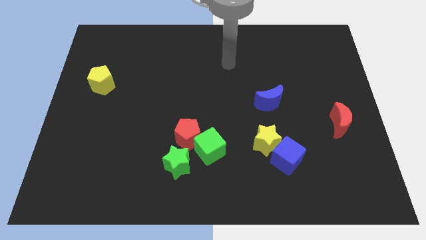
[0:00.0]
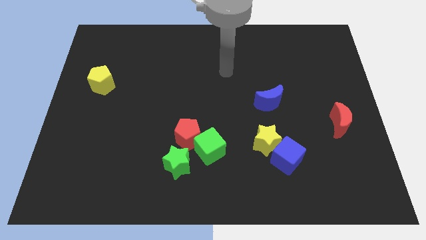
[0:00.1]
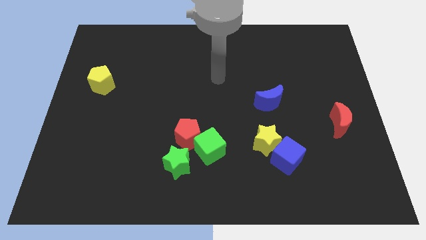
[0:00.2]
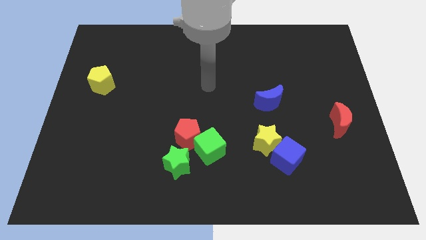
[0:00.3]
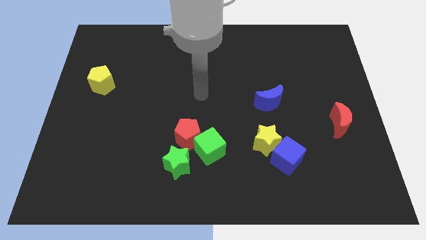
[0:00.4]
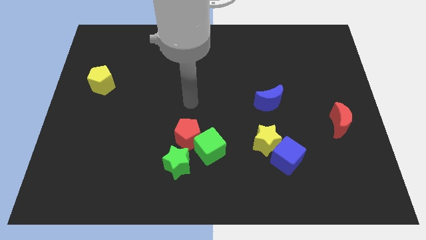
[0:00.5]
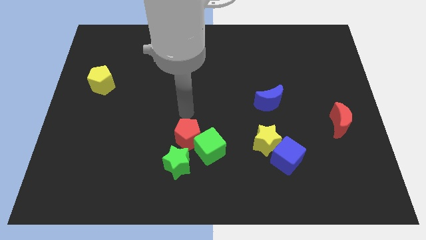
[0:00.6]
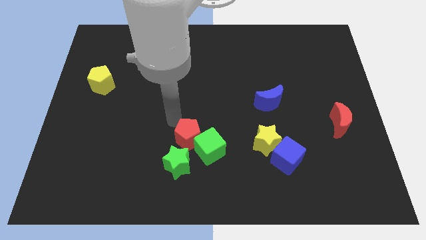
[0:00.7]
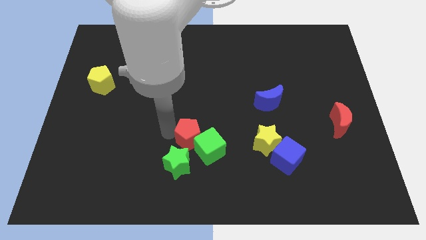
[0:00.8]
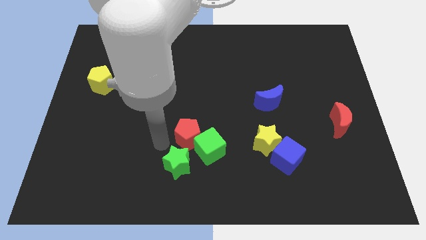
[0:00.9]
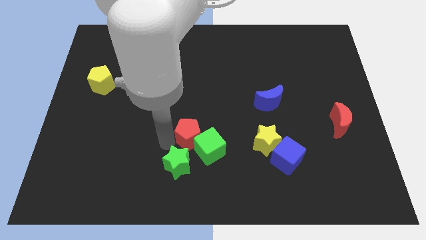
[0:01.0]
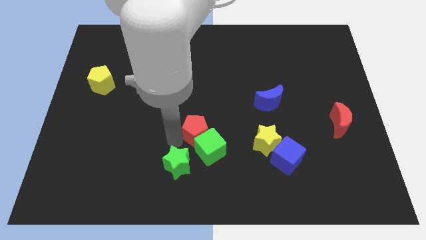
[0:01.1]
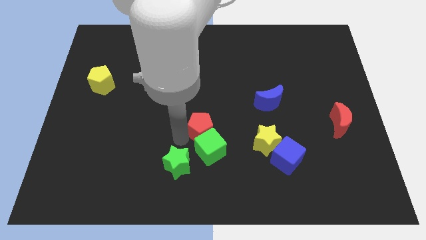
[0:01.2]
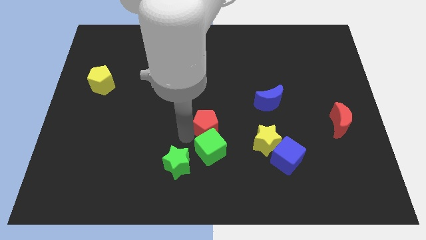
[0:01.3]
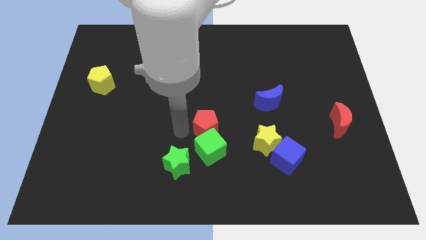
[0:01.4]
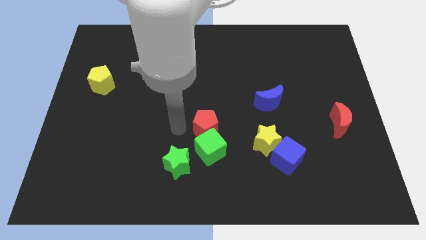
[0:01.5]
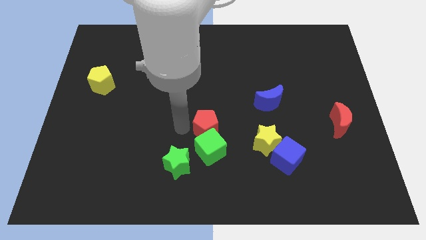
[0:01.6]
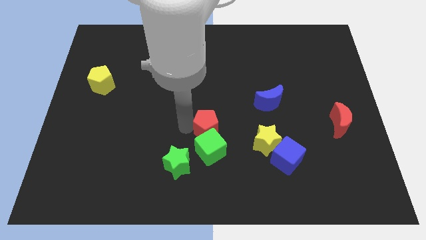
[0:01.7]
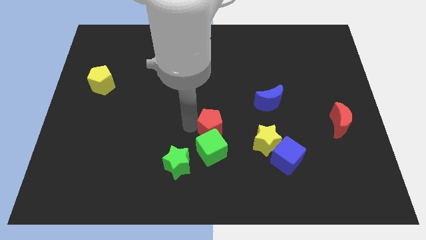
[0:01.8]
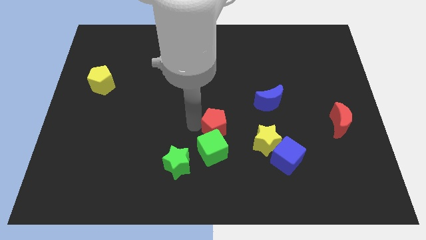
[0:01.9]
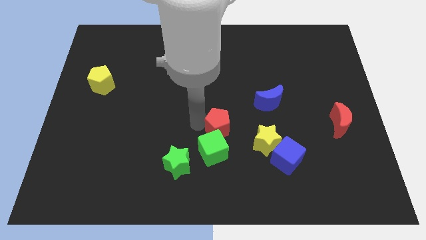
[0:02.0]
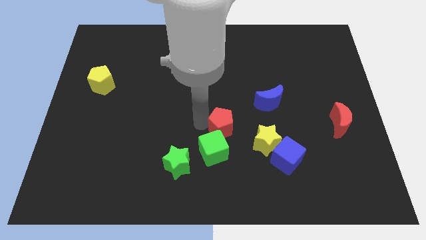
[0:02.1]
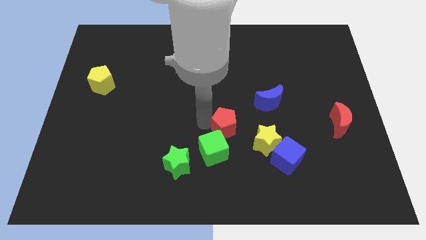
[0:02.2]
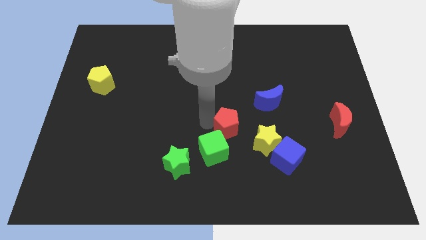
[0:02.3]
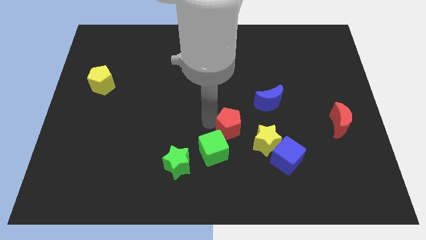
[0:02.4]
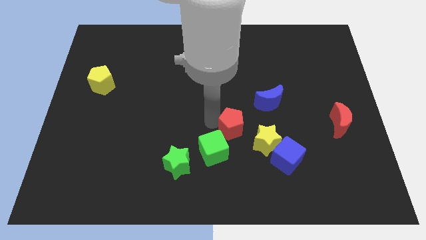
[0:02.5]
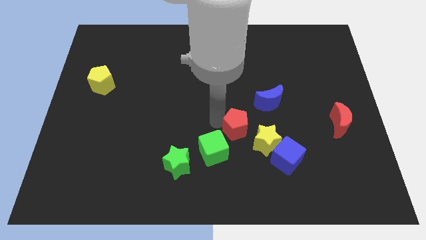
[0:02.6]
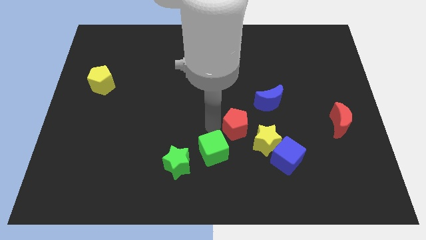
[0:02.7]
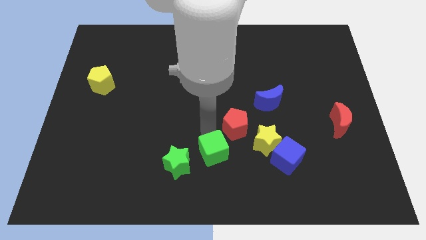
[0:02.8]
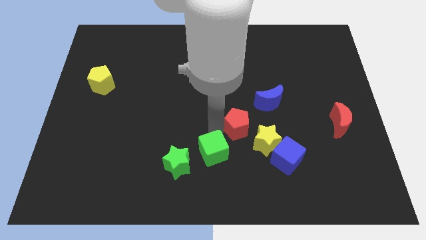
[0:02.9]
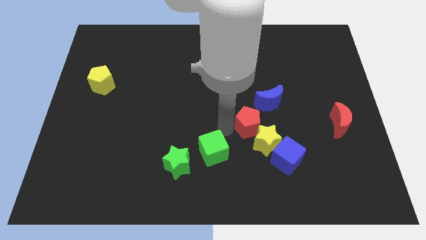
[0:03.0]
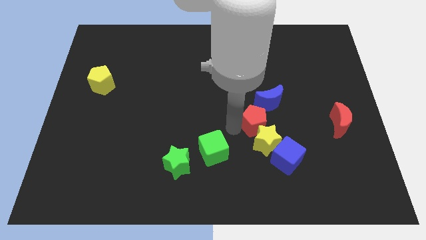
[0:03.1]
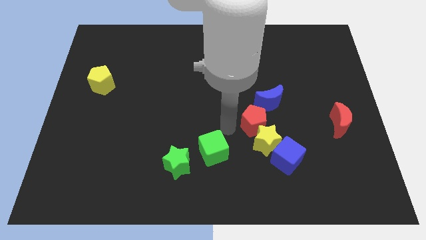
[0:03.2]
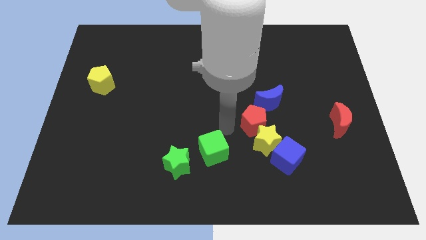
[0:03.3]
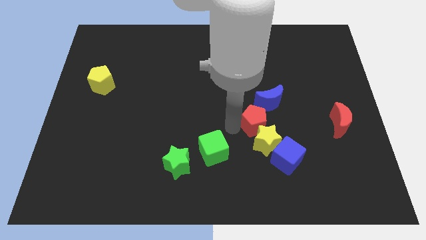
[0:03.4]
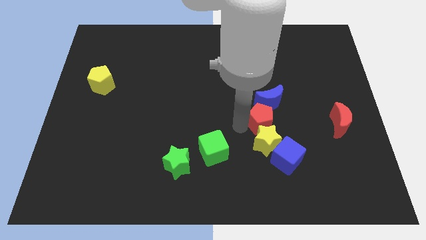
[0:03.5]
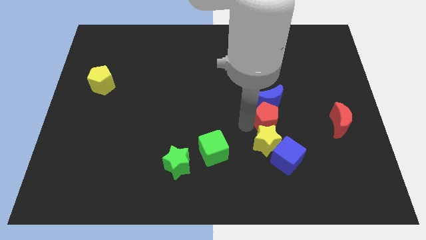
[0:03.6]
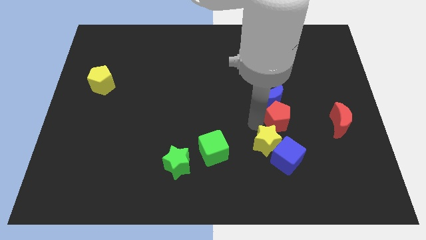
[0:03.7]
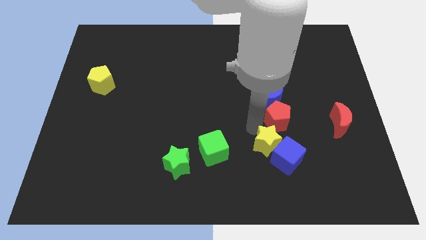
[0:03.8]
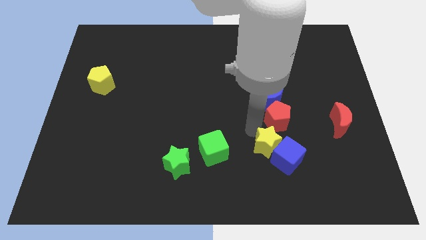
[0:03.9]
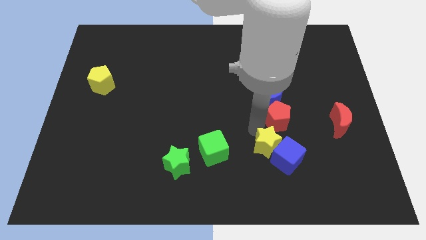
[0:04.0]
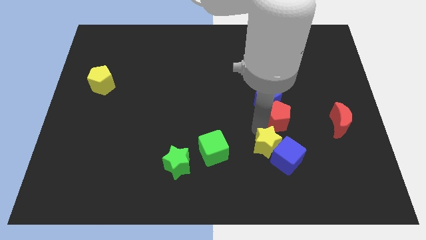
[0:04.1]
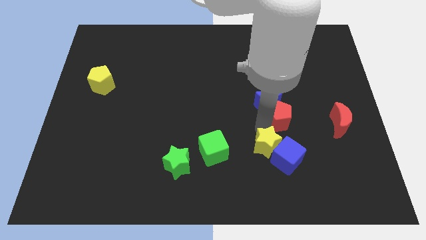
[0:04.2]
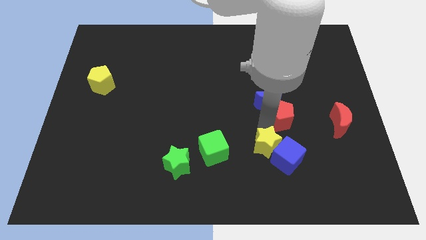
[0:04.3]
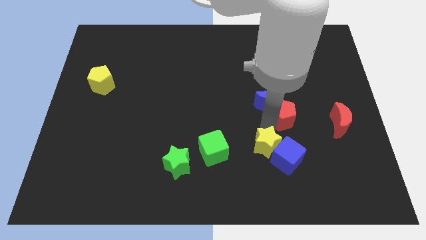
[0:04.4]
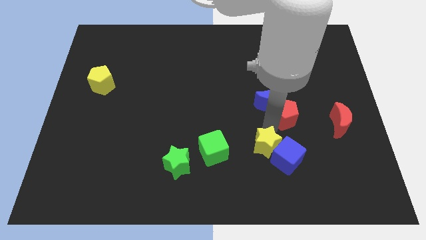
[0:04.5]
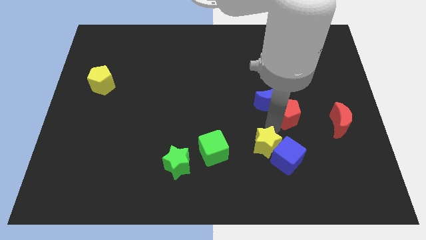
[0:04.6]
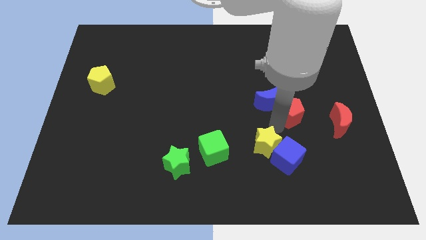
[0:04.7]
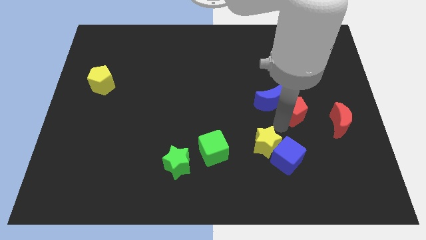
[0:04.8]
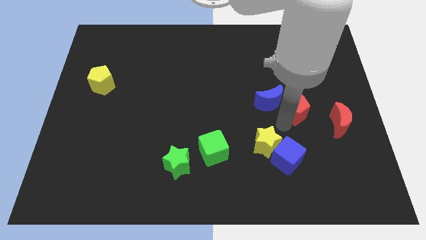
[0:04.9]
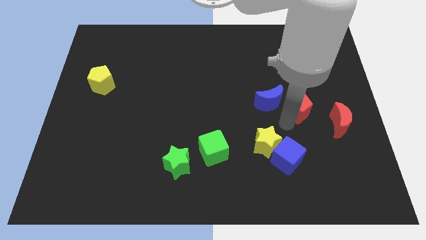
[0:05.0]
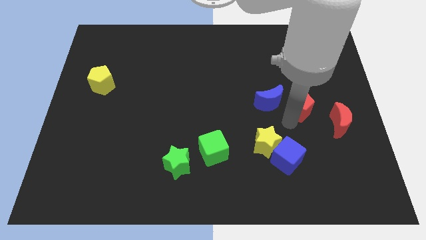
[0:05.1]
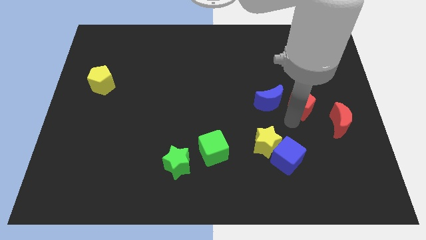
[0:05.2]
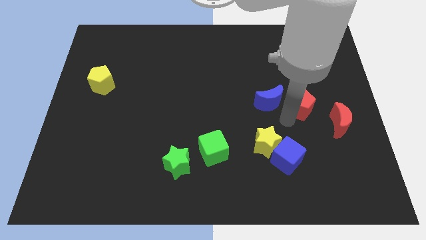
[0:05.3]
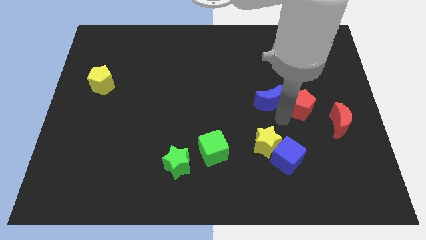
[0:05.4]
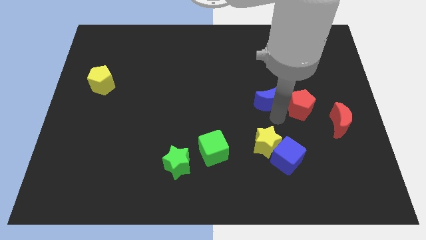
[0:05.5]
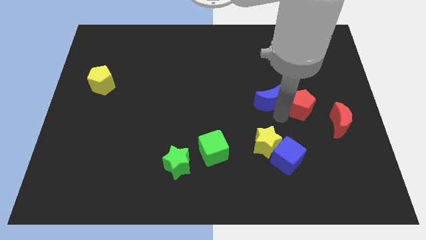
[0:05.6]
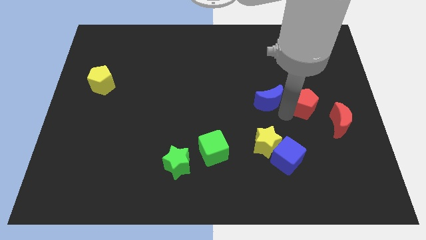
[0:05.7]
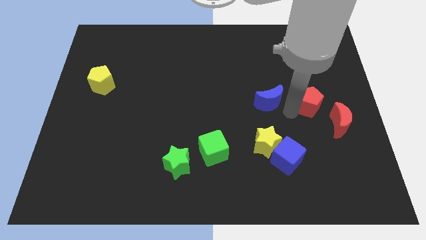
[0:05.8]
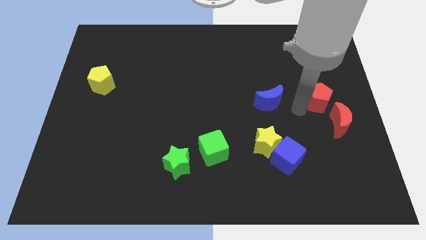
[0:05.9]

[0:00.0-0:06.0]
push the red pentagon to the top of the red moon

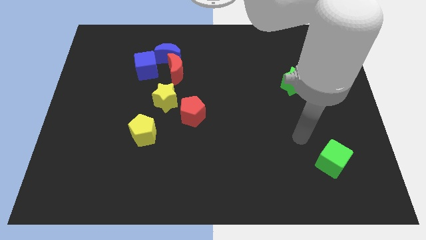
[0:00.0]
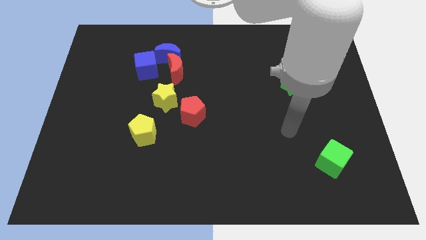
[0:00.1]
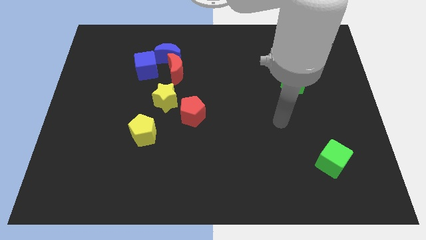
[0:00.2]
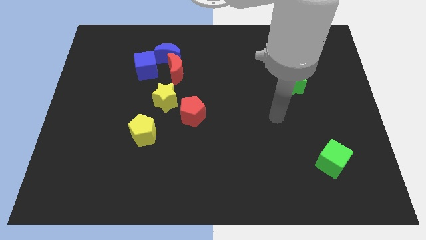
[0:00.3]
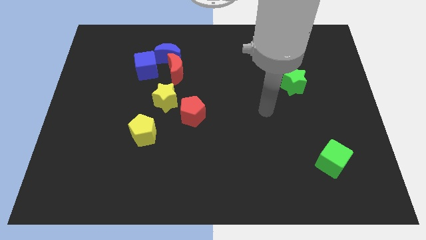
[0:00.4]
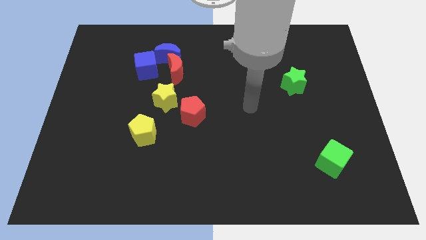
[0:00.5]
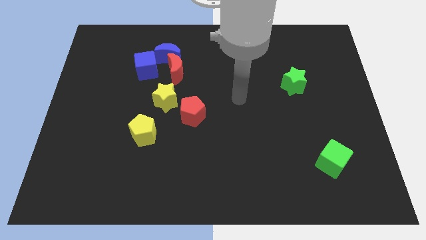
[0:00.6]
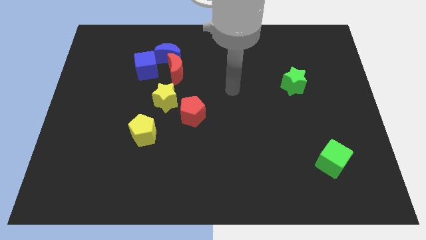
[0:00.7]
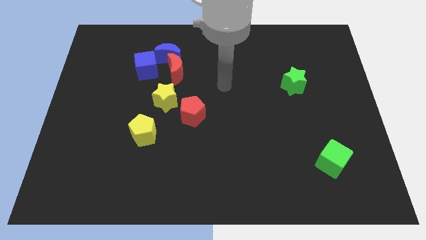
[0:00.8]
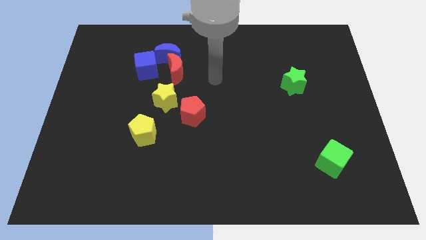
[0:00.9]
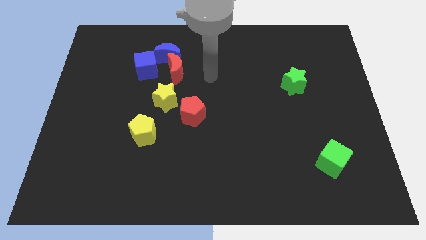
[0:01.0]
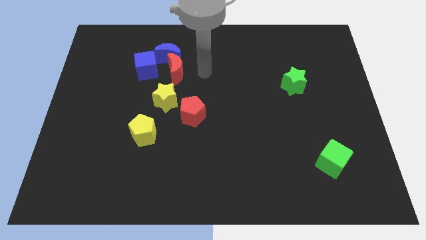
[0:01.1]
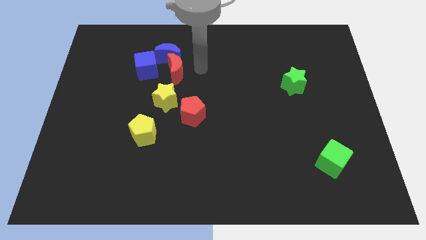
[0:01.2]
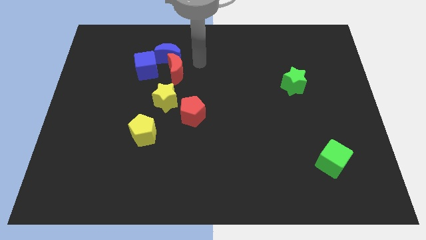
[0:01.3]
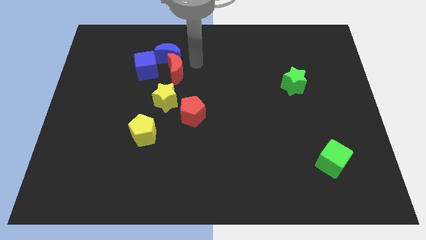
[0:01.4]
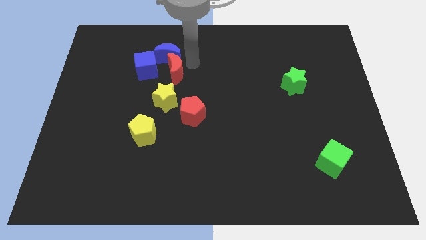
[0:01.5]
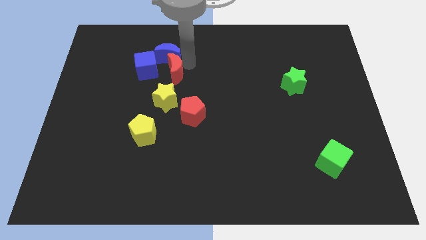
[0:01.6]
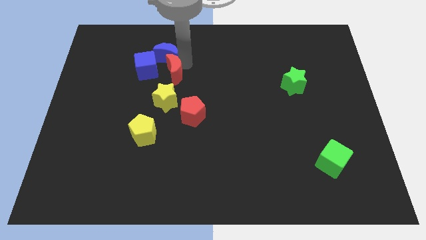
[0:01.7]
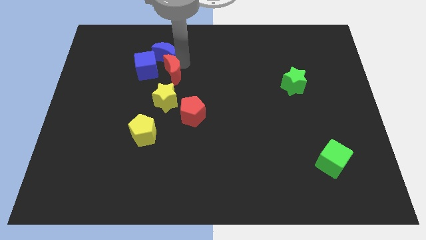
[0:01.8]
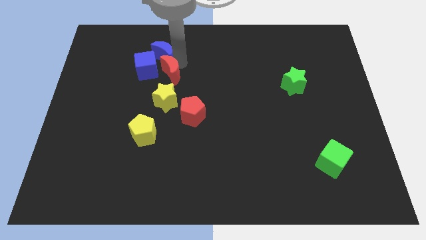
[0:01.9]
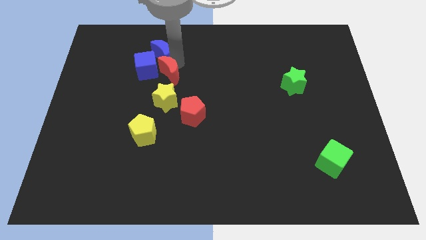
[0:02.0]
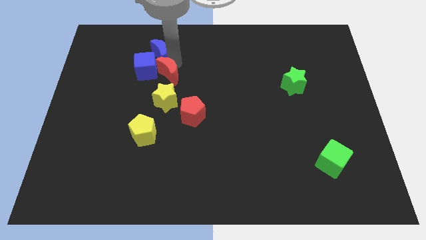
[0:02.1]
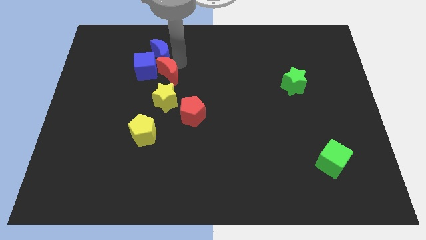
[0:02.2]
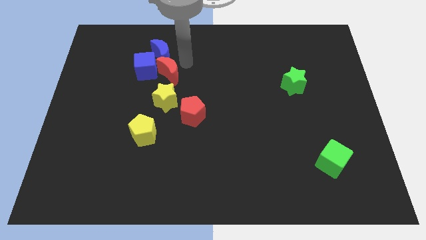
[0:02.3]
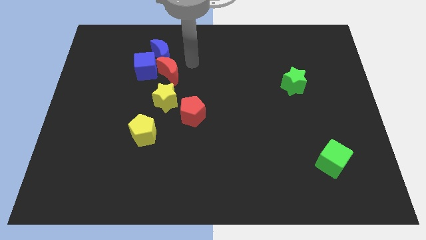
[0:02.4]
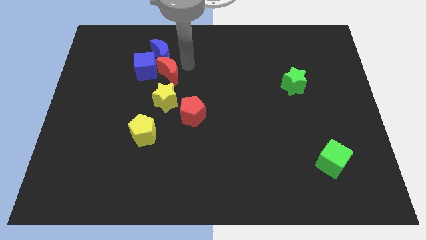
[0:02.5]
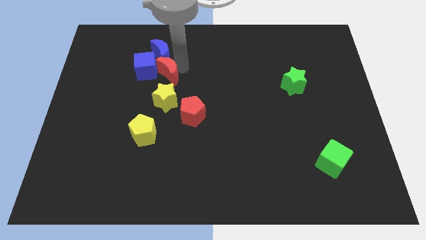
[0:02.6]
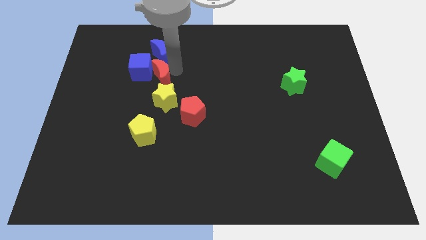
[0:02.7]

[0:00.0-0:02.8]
move the red moon to the top left side of the yellow star
